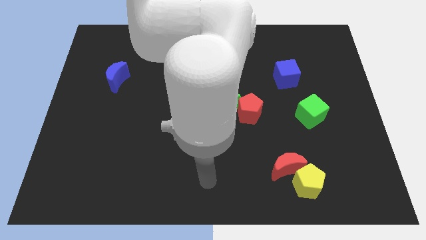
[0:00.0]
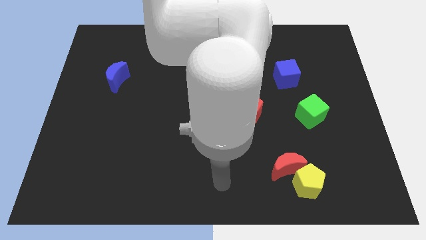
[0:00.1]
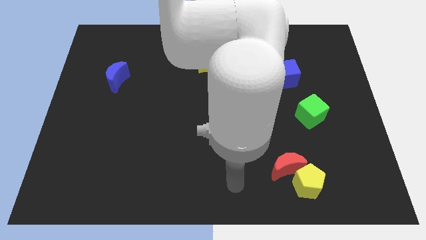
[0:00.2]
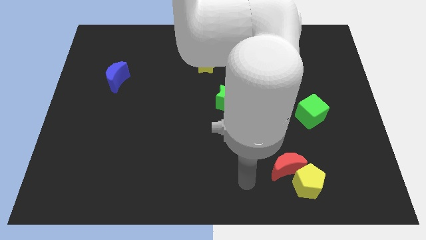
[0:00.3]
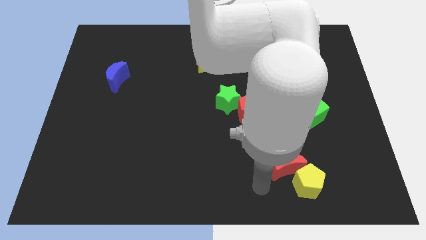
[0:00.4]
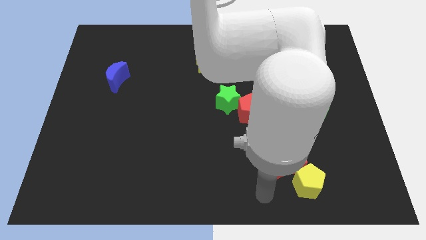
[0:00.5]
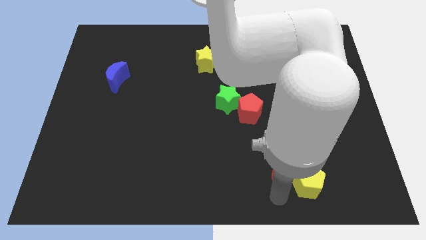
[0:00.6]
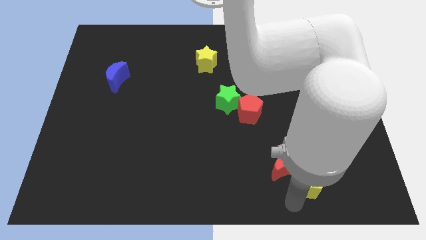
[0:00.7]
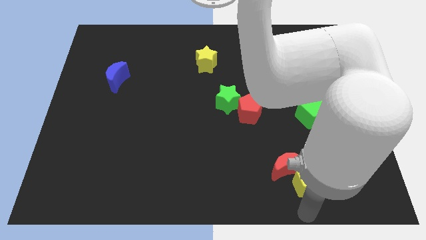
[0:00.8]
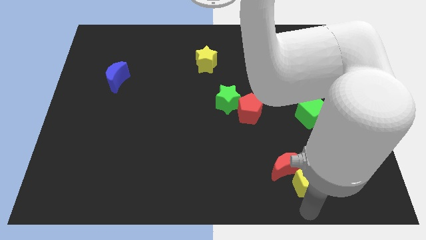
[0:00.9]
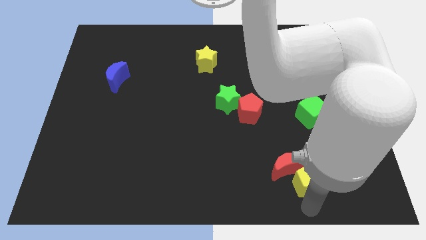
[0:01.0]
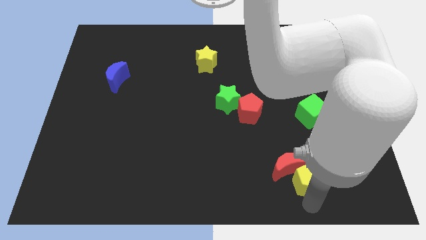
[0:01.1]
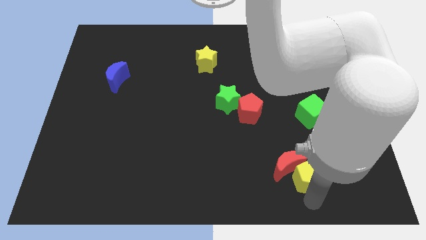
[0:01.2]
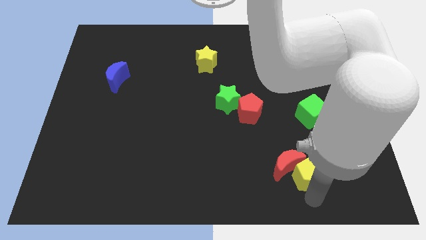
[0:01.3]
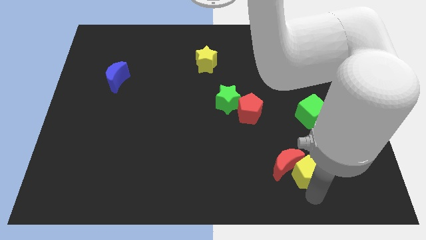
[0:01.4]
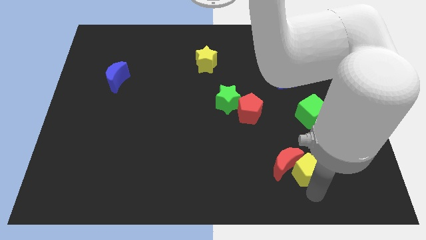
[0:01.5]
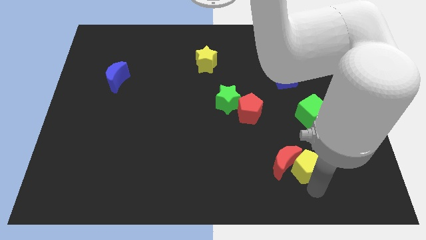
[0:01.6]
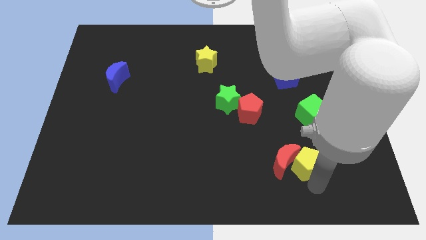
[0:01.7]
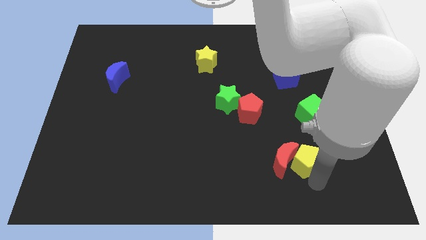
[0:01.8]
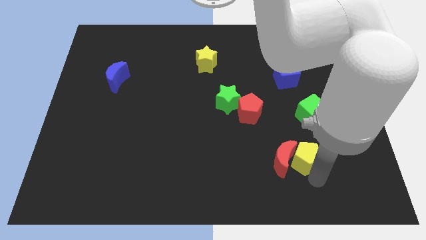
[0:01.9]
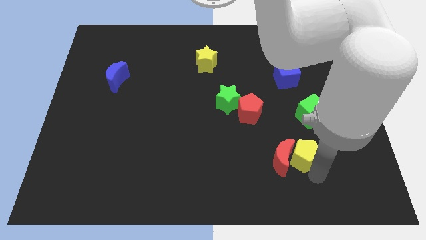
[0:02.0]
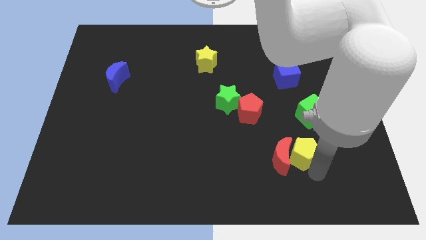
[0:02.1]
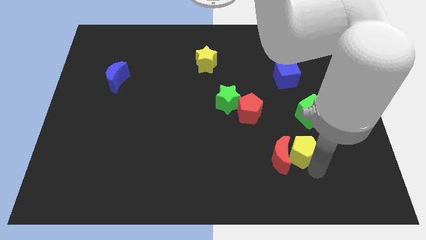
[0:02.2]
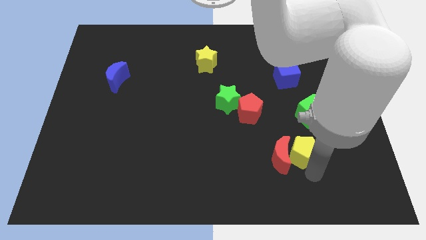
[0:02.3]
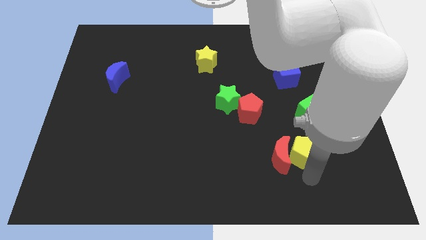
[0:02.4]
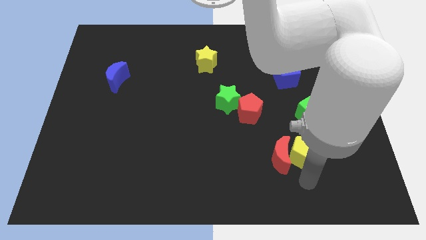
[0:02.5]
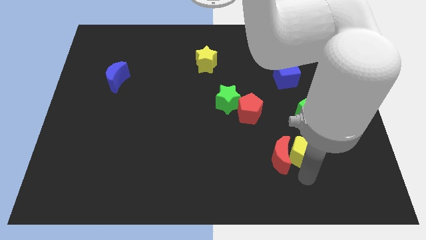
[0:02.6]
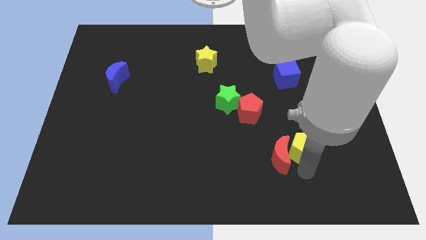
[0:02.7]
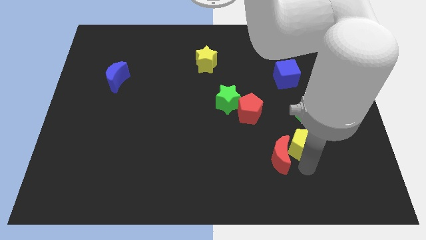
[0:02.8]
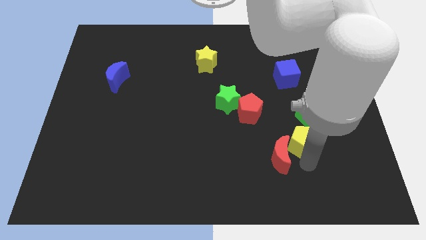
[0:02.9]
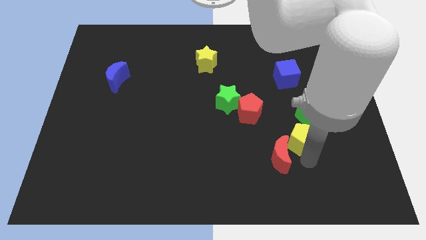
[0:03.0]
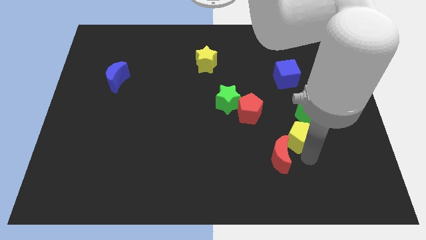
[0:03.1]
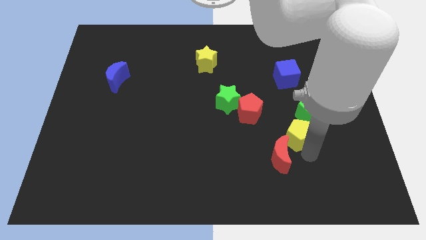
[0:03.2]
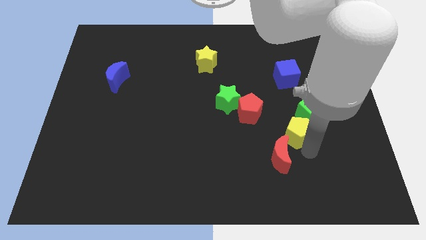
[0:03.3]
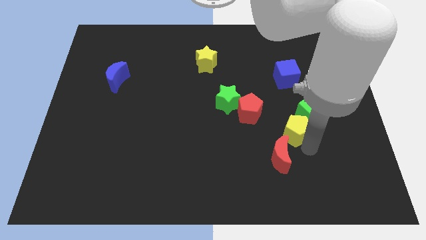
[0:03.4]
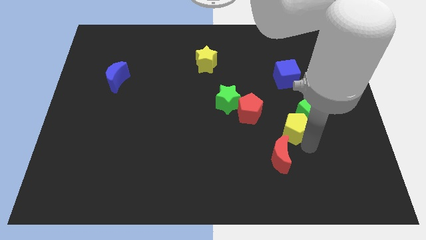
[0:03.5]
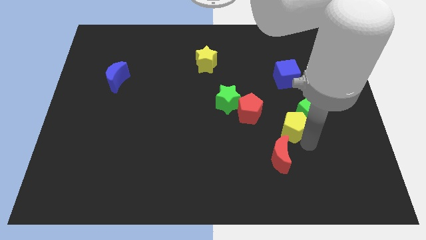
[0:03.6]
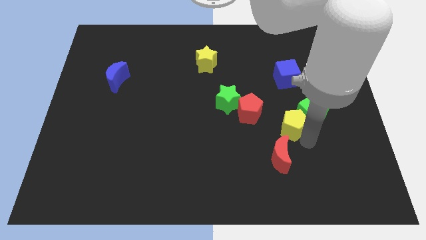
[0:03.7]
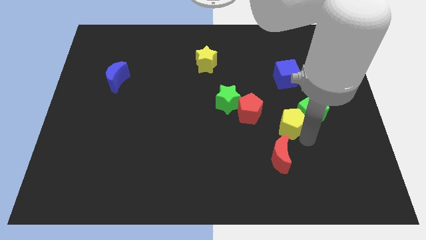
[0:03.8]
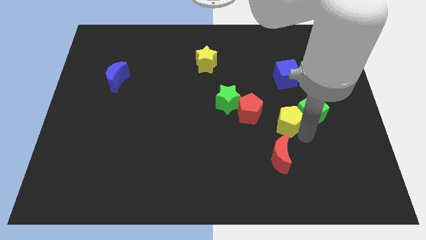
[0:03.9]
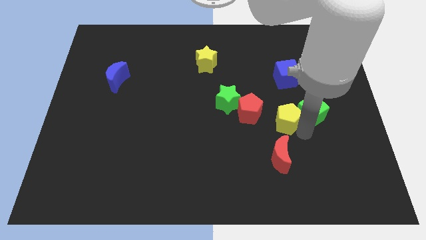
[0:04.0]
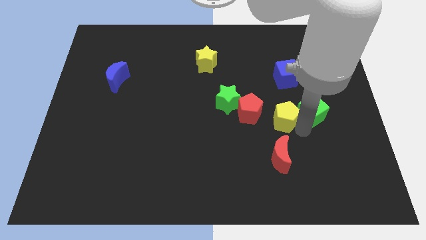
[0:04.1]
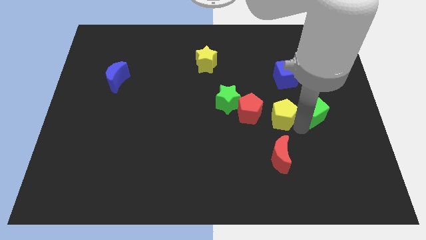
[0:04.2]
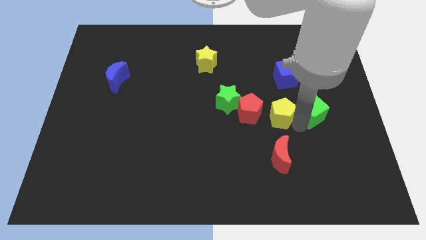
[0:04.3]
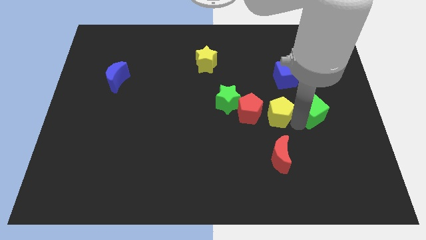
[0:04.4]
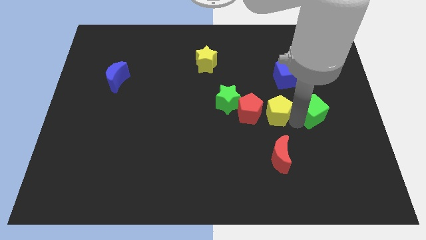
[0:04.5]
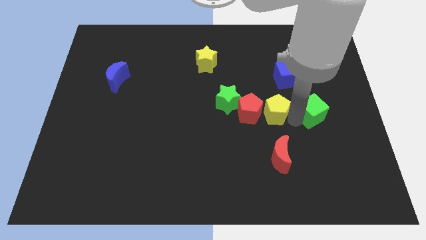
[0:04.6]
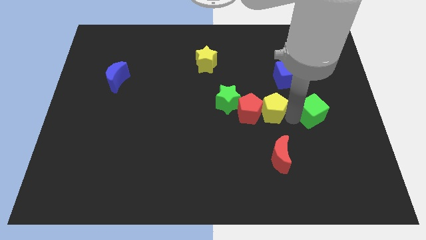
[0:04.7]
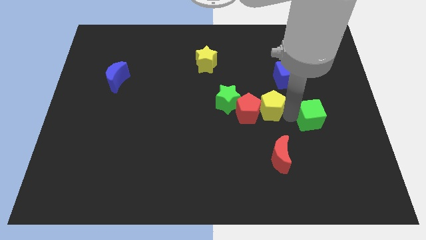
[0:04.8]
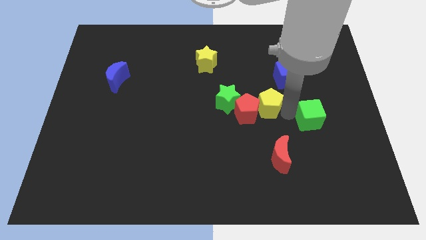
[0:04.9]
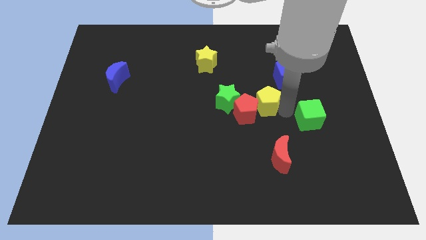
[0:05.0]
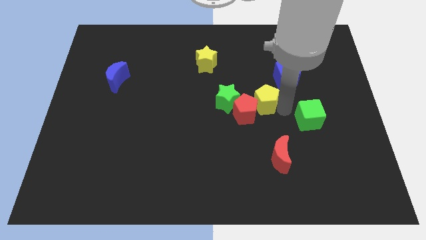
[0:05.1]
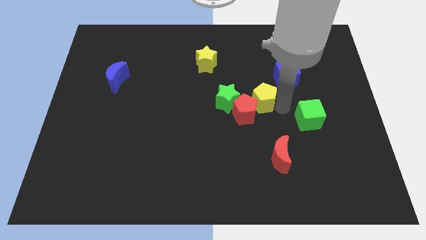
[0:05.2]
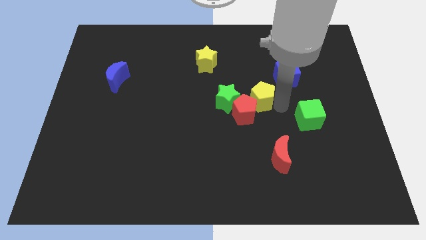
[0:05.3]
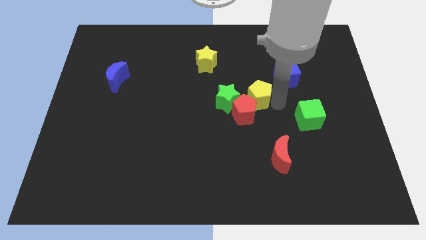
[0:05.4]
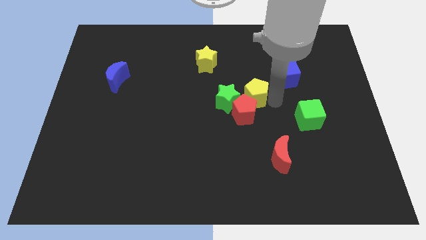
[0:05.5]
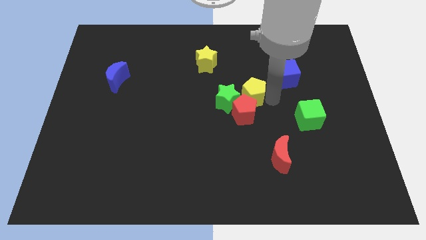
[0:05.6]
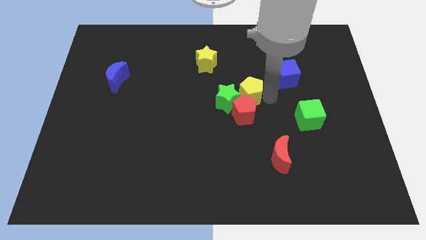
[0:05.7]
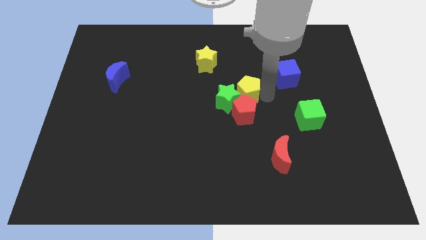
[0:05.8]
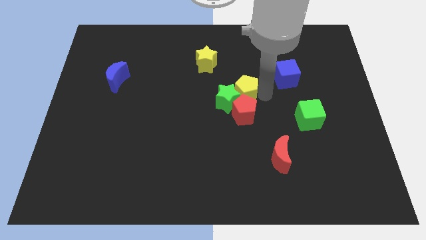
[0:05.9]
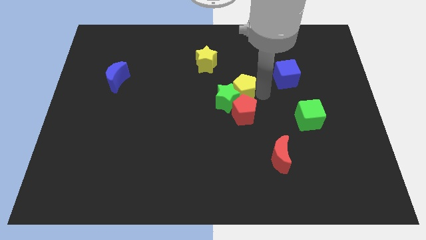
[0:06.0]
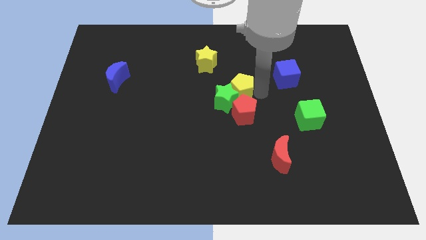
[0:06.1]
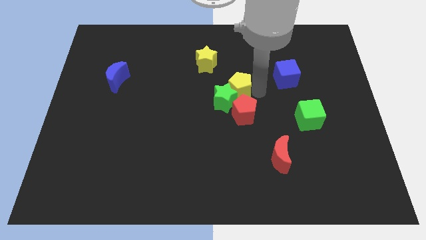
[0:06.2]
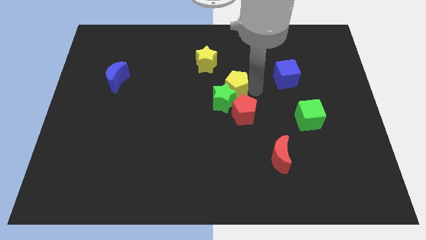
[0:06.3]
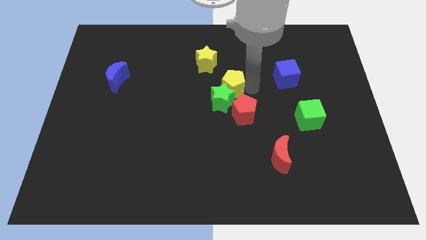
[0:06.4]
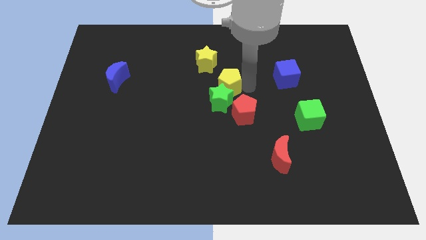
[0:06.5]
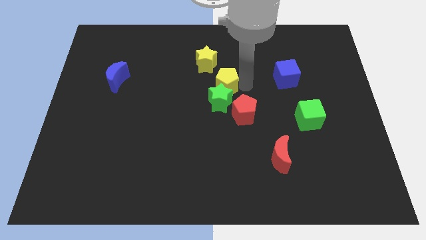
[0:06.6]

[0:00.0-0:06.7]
move the yellow pentagon to the top left of the green star
